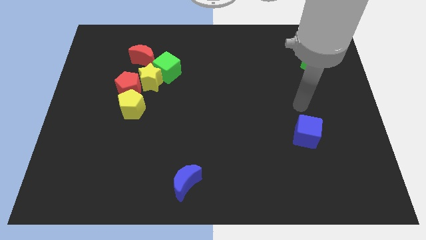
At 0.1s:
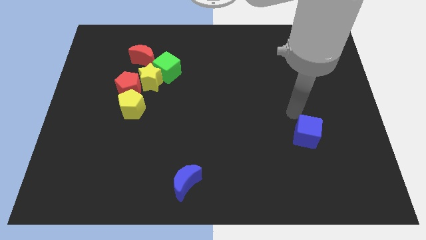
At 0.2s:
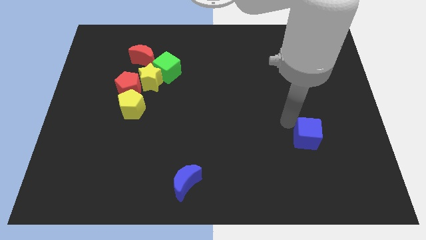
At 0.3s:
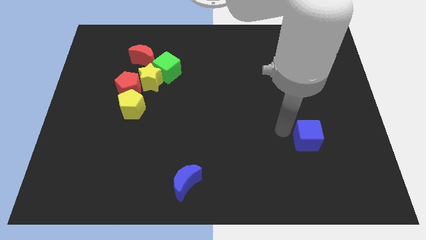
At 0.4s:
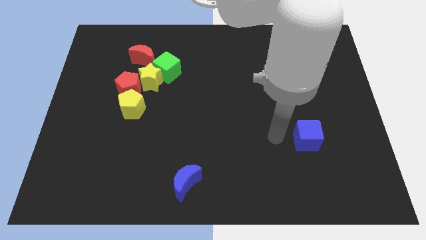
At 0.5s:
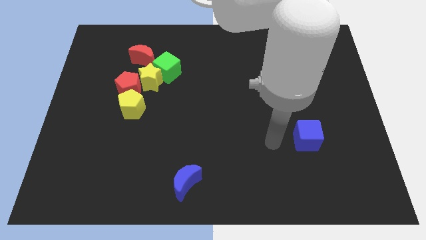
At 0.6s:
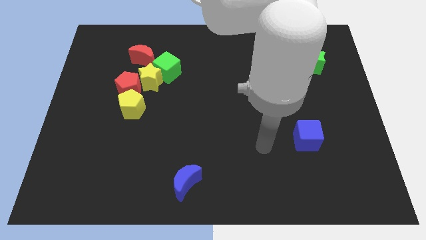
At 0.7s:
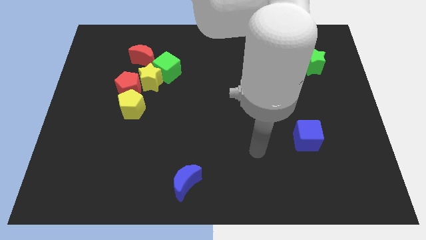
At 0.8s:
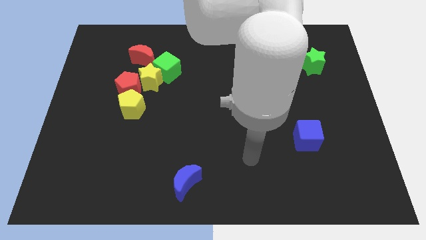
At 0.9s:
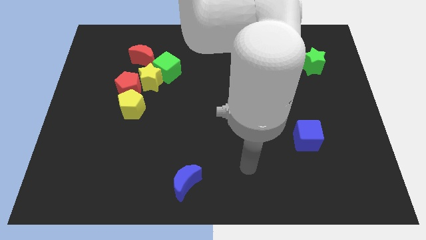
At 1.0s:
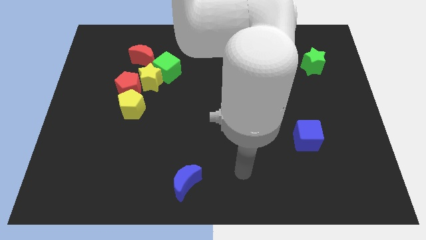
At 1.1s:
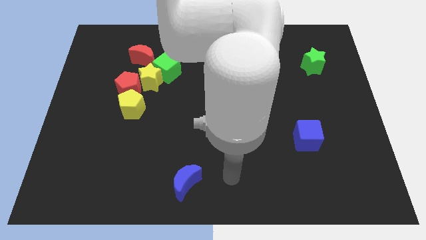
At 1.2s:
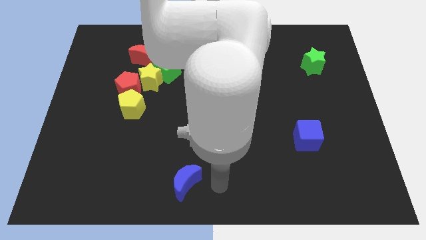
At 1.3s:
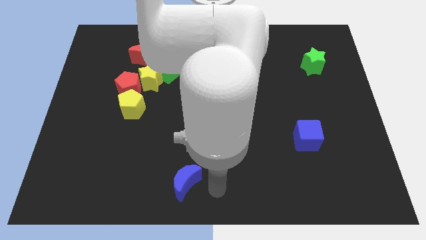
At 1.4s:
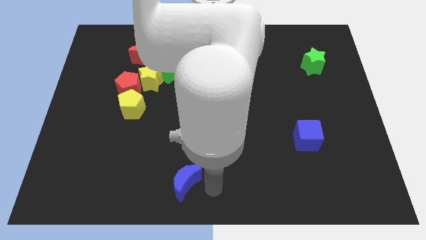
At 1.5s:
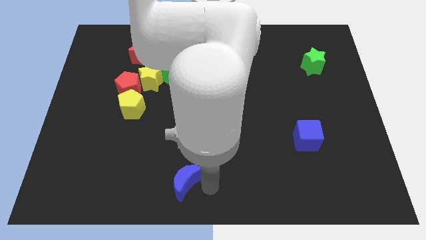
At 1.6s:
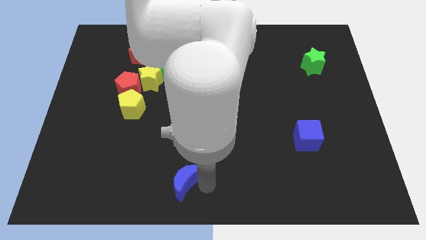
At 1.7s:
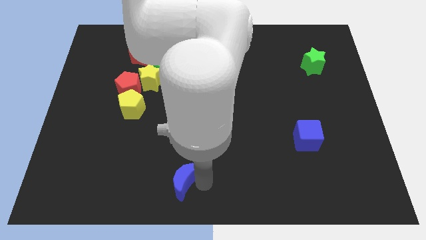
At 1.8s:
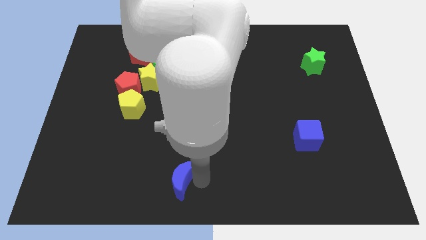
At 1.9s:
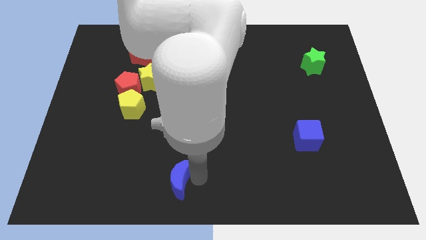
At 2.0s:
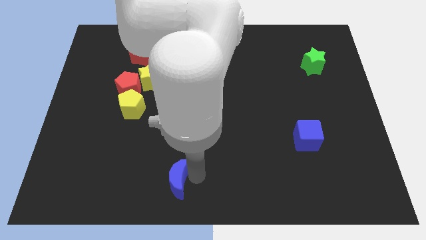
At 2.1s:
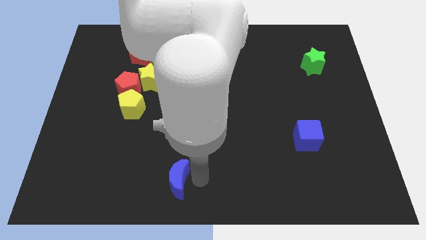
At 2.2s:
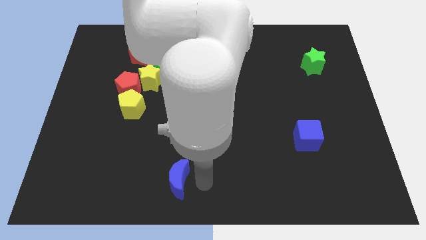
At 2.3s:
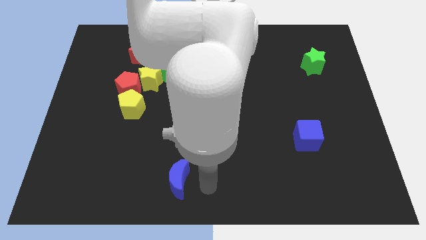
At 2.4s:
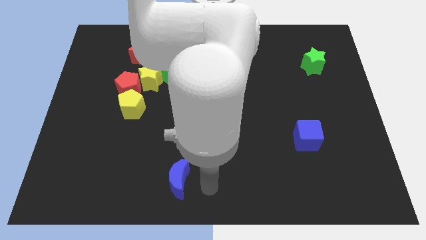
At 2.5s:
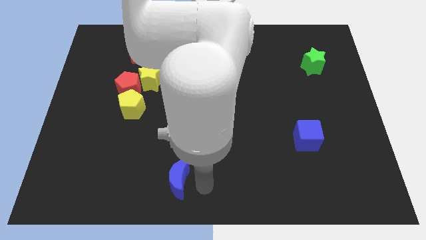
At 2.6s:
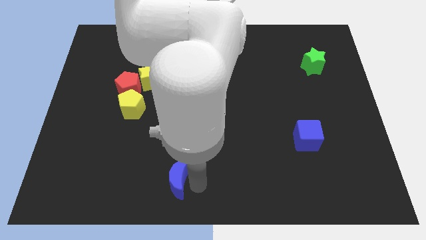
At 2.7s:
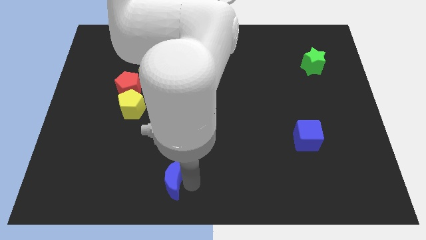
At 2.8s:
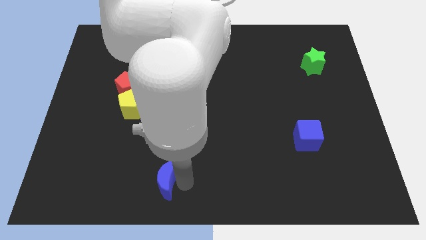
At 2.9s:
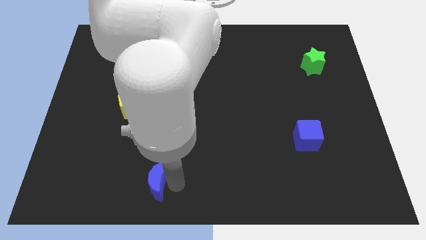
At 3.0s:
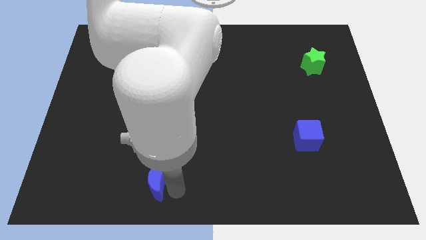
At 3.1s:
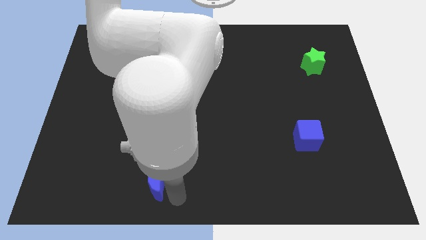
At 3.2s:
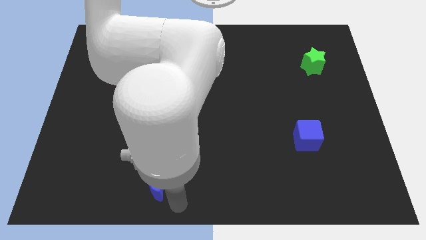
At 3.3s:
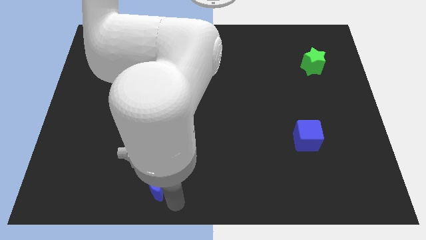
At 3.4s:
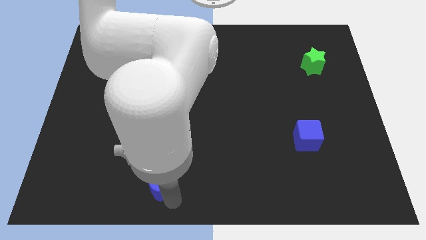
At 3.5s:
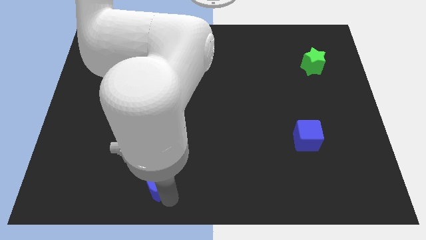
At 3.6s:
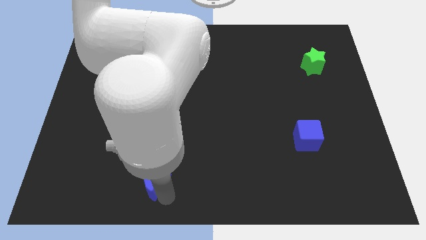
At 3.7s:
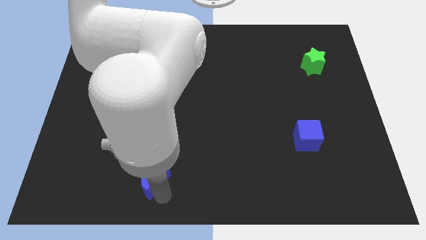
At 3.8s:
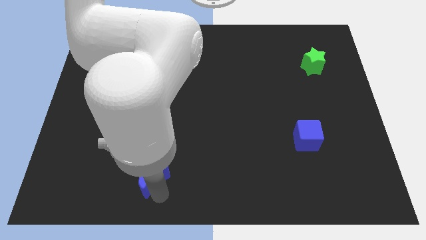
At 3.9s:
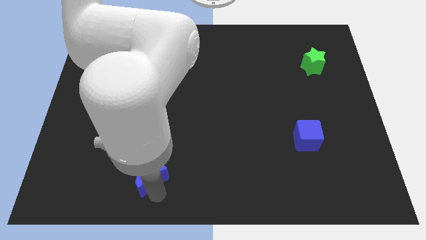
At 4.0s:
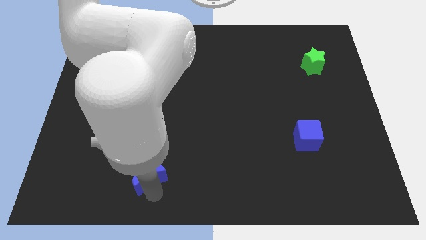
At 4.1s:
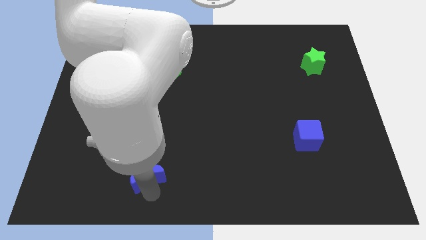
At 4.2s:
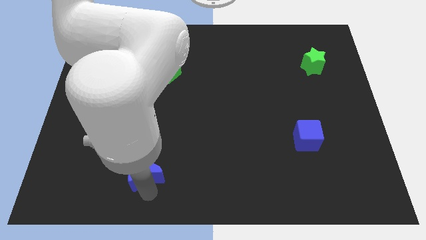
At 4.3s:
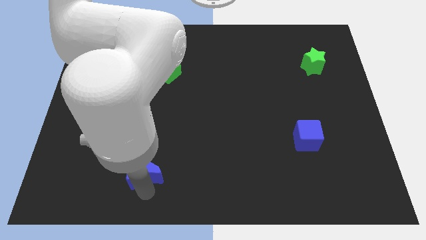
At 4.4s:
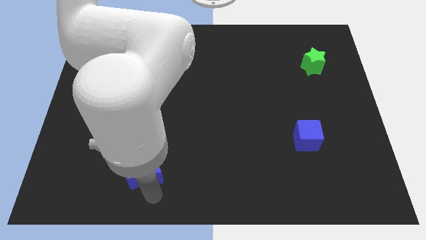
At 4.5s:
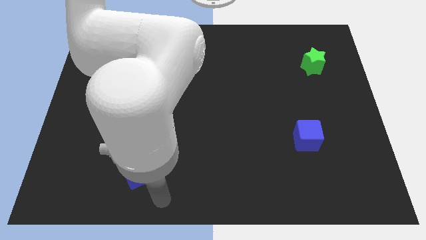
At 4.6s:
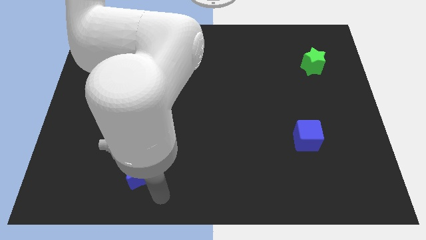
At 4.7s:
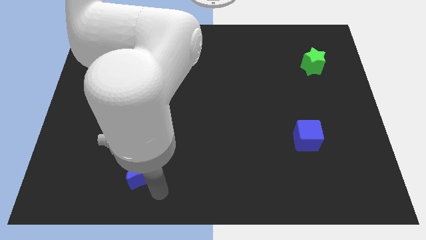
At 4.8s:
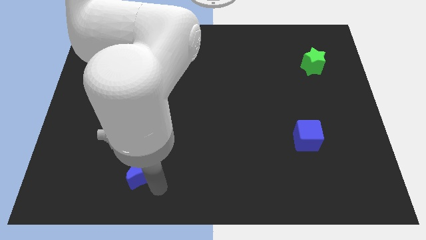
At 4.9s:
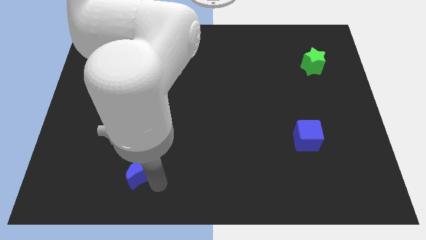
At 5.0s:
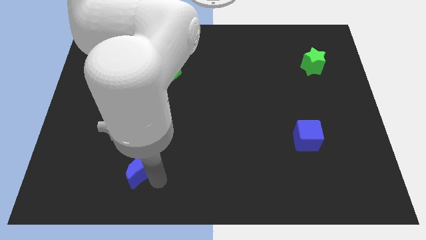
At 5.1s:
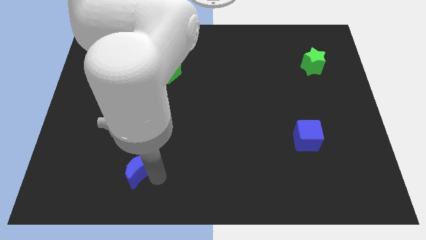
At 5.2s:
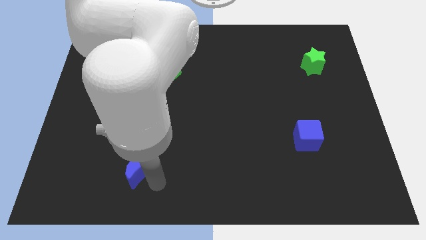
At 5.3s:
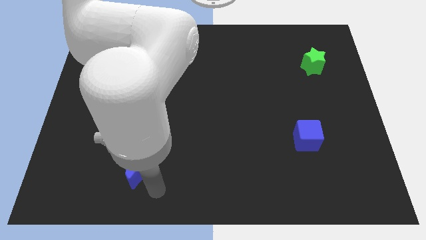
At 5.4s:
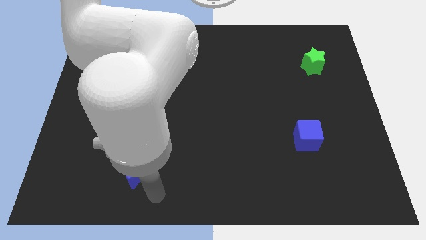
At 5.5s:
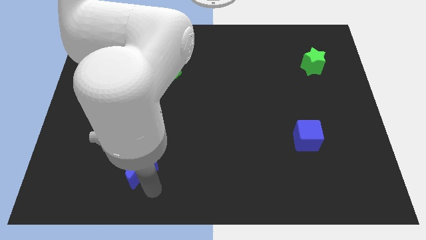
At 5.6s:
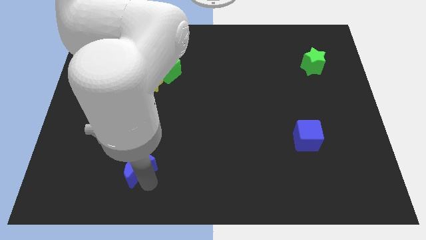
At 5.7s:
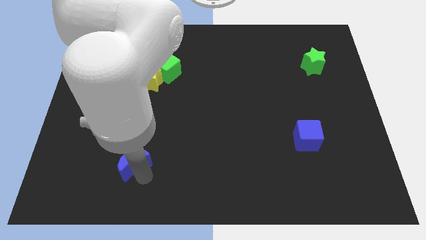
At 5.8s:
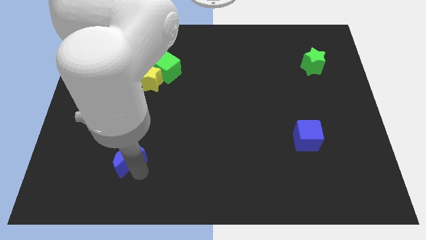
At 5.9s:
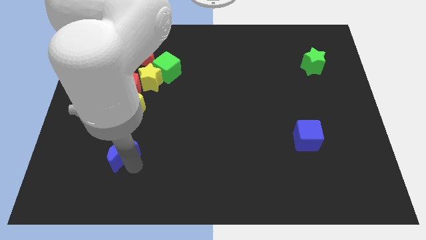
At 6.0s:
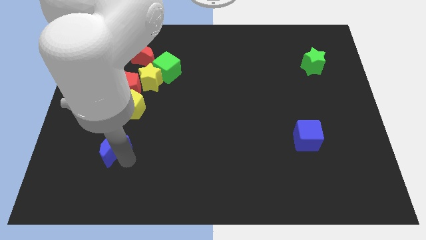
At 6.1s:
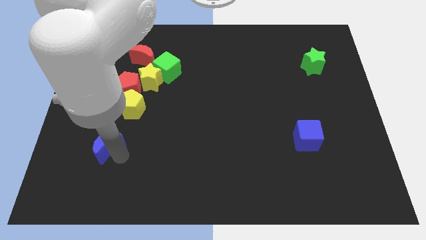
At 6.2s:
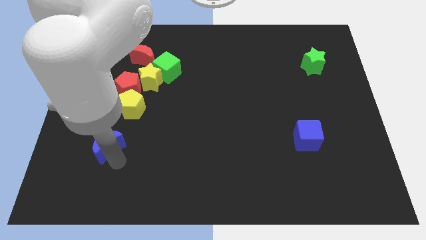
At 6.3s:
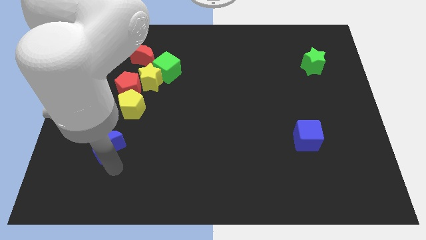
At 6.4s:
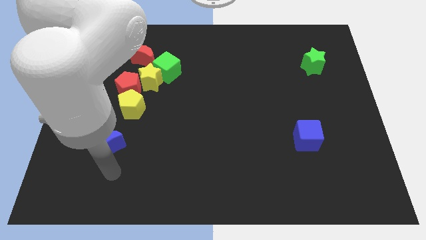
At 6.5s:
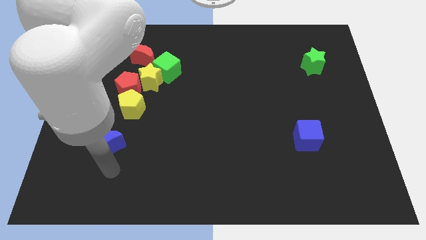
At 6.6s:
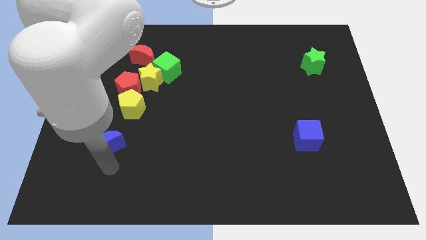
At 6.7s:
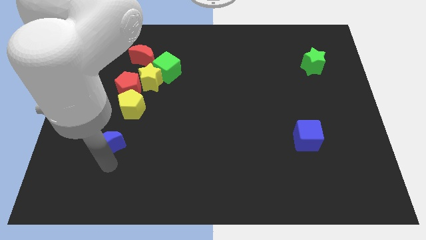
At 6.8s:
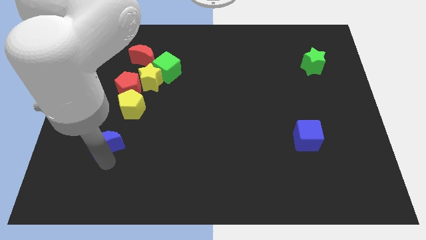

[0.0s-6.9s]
push the blue moon diagonally down and to the left of the yellow pentagon
